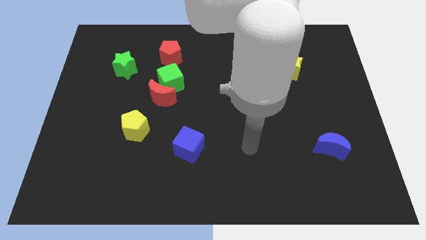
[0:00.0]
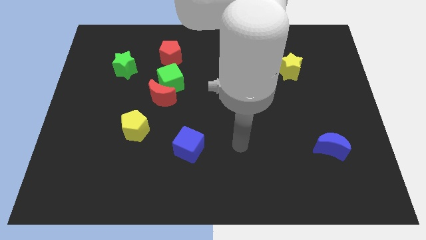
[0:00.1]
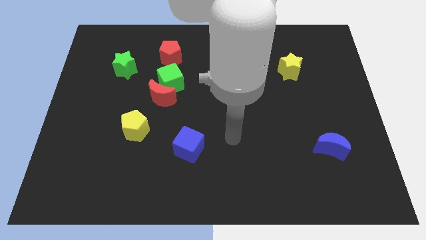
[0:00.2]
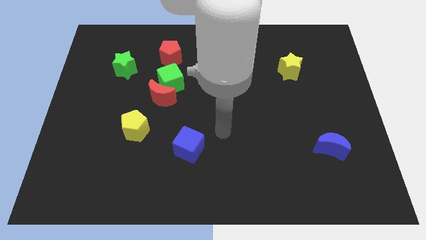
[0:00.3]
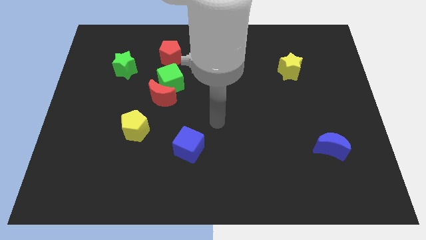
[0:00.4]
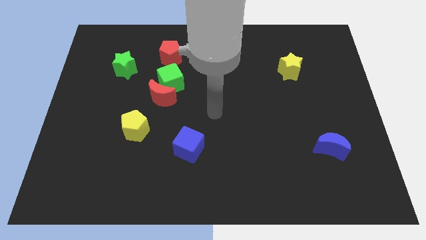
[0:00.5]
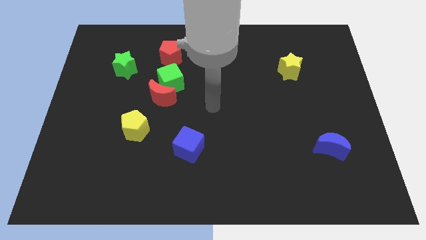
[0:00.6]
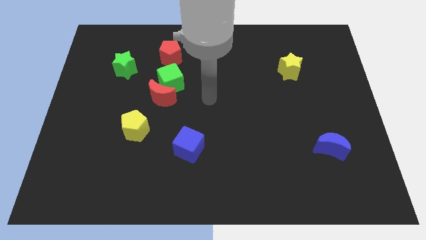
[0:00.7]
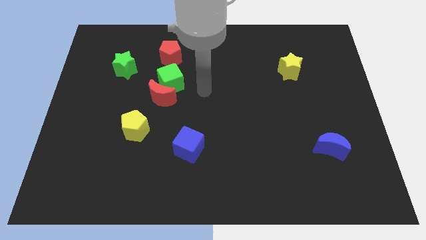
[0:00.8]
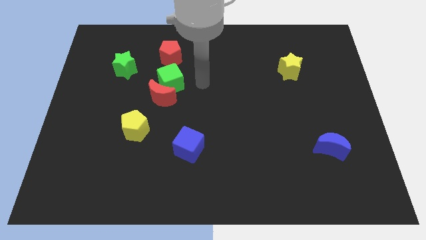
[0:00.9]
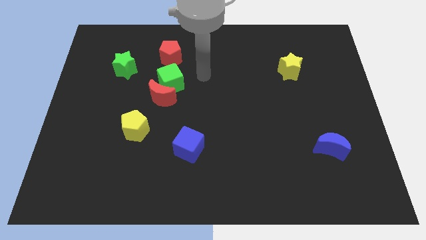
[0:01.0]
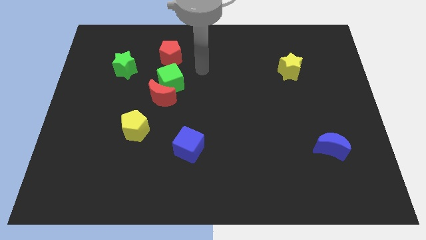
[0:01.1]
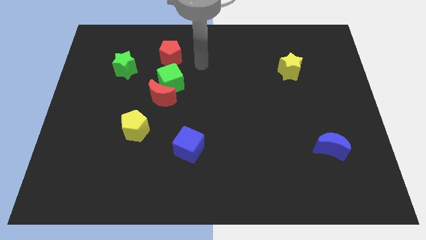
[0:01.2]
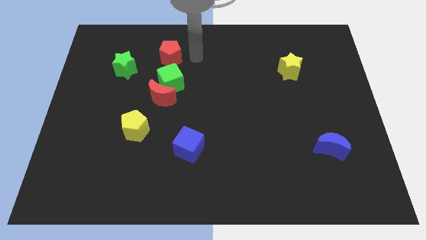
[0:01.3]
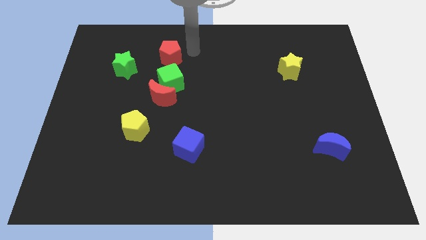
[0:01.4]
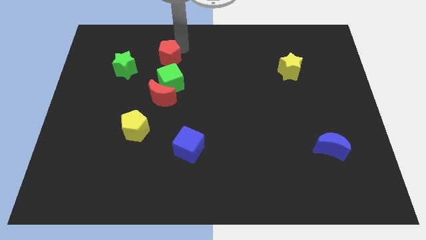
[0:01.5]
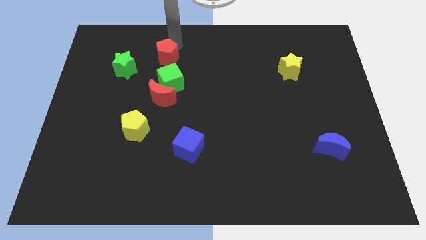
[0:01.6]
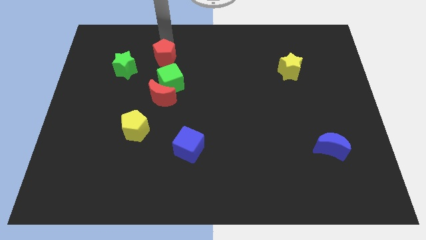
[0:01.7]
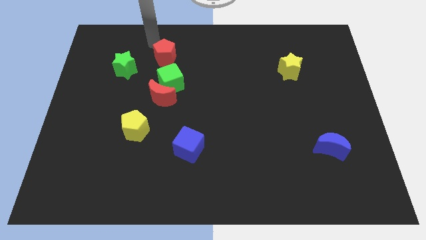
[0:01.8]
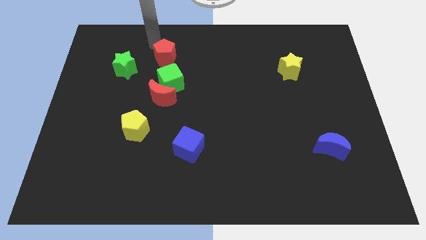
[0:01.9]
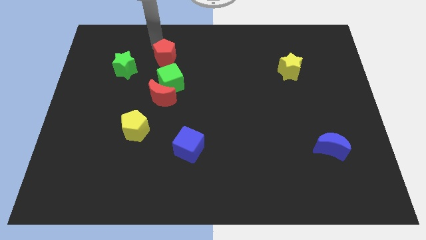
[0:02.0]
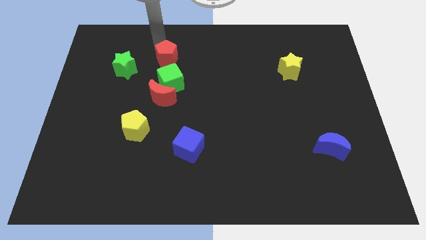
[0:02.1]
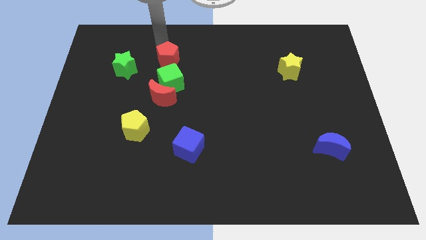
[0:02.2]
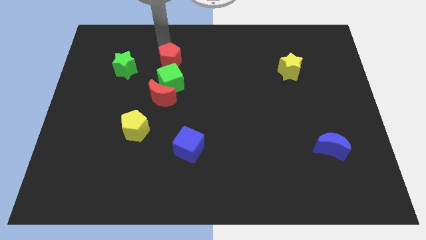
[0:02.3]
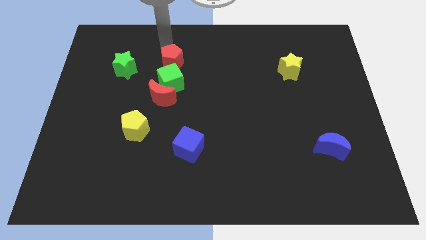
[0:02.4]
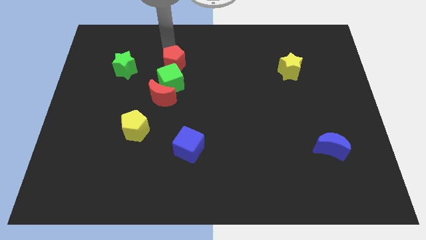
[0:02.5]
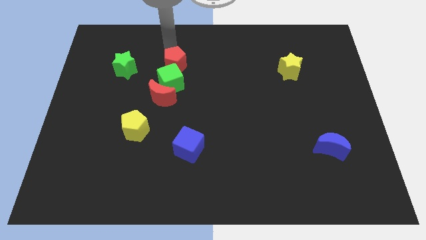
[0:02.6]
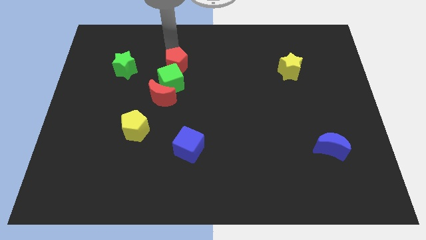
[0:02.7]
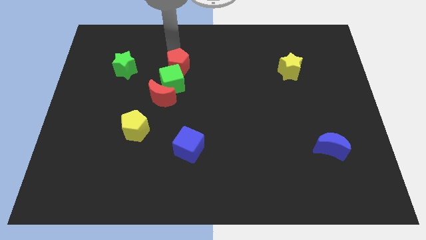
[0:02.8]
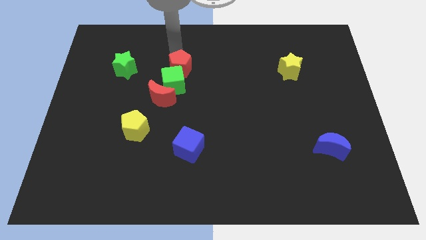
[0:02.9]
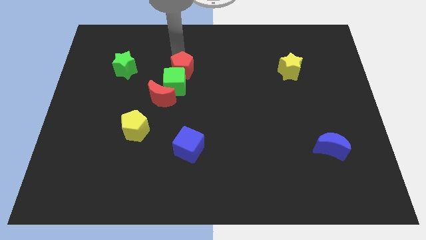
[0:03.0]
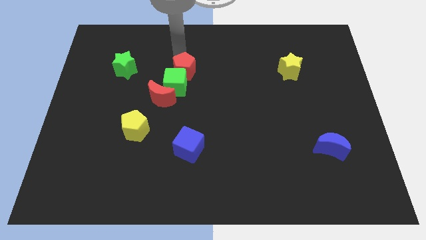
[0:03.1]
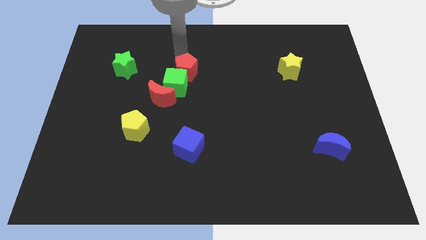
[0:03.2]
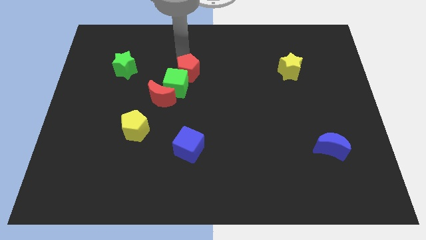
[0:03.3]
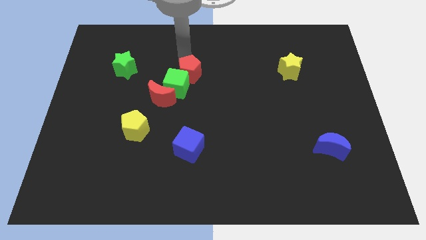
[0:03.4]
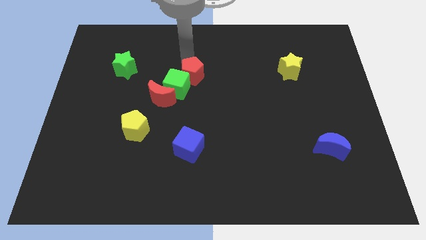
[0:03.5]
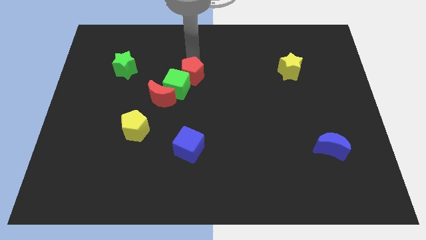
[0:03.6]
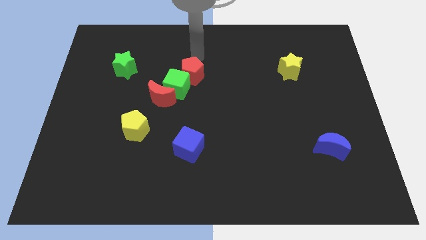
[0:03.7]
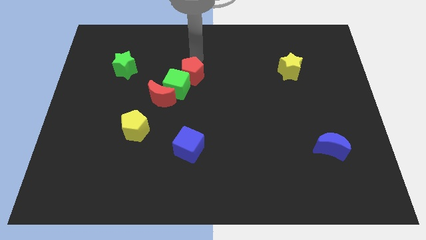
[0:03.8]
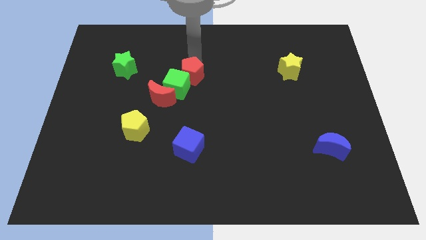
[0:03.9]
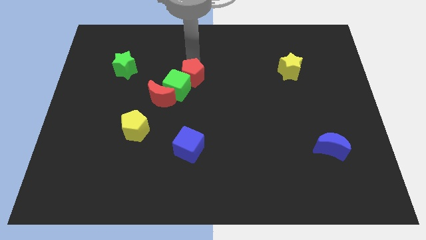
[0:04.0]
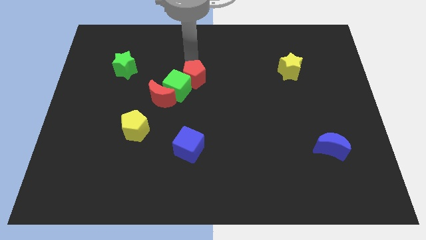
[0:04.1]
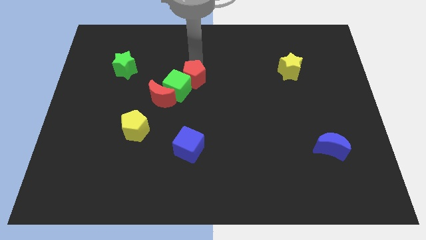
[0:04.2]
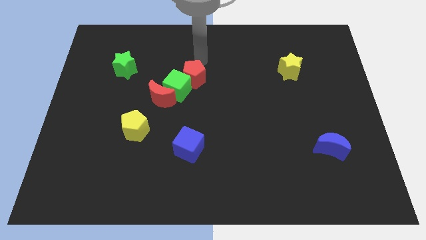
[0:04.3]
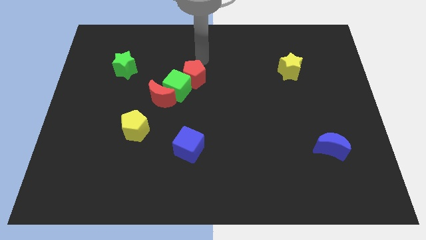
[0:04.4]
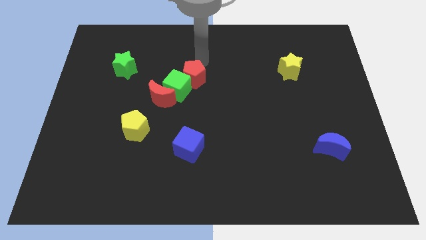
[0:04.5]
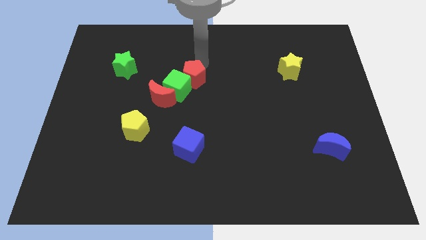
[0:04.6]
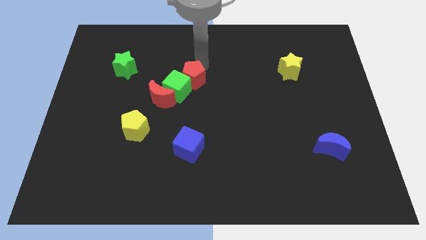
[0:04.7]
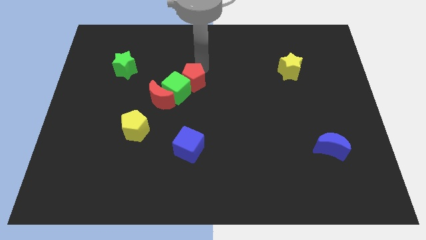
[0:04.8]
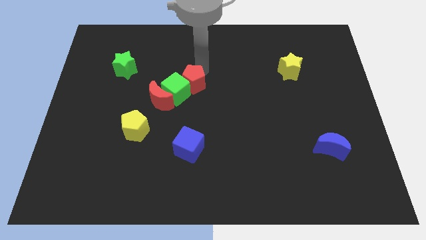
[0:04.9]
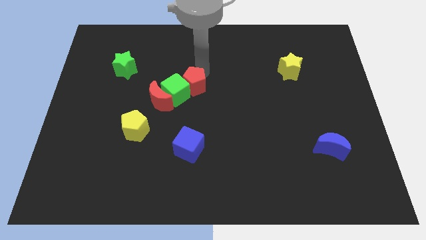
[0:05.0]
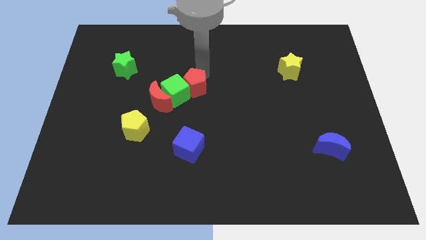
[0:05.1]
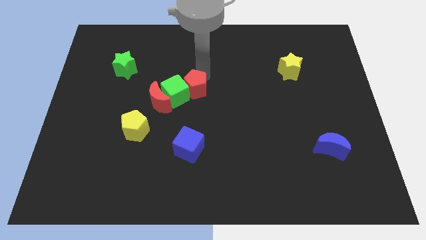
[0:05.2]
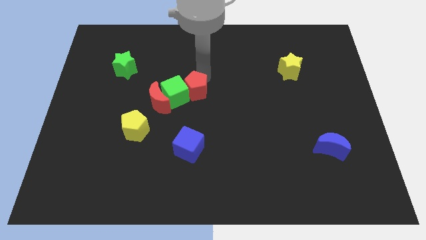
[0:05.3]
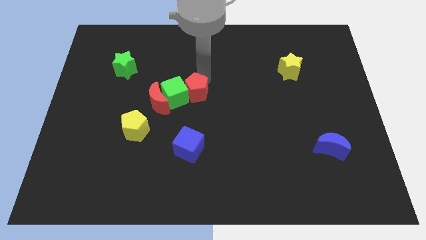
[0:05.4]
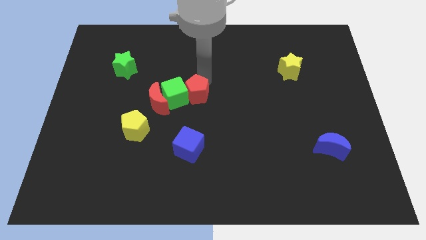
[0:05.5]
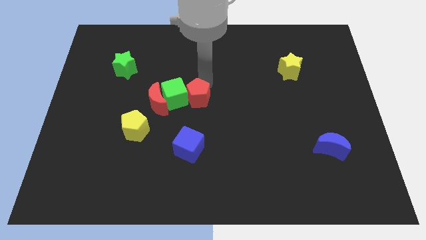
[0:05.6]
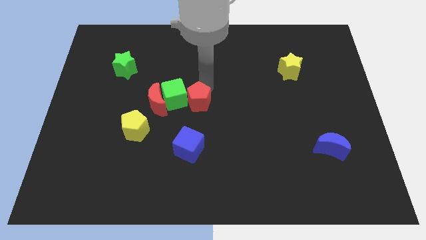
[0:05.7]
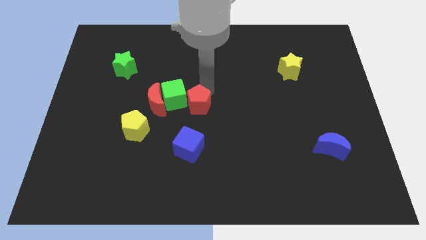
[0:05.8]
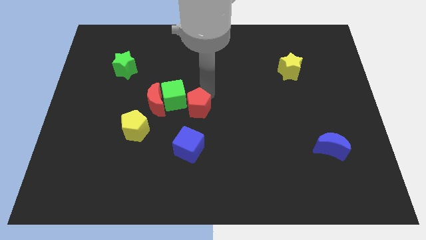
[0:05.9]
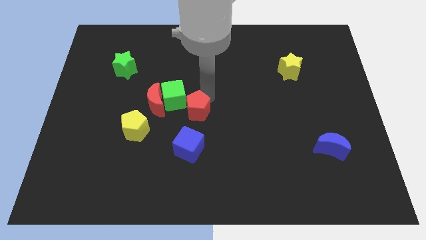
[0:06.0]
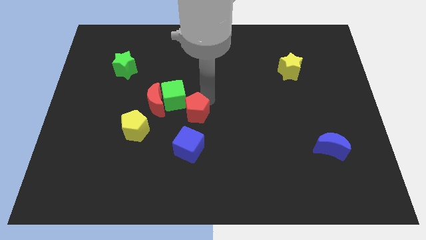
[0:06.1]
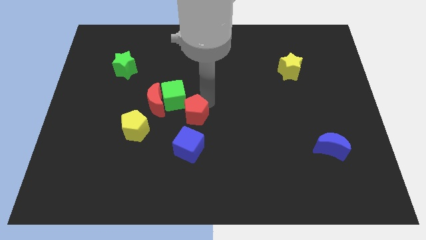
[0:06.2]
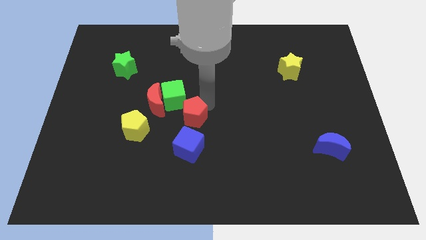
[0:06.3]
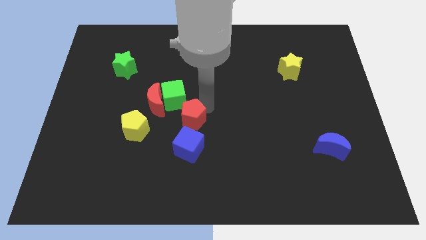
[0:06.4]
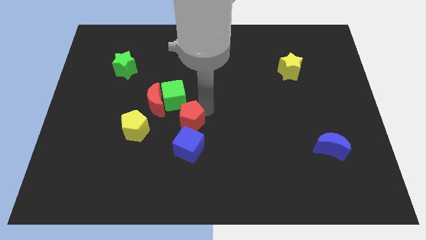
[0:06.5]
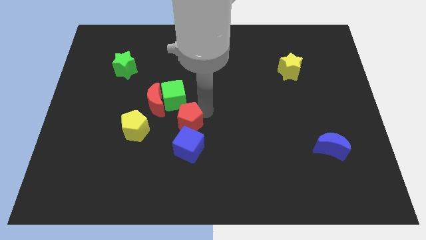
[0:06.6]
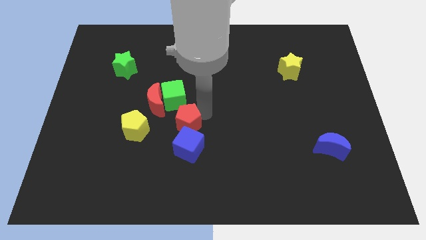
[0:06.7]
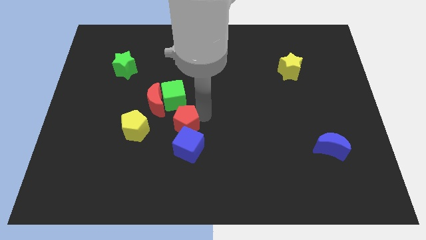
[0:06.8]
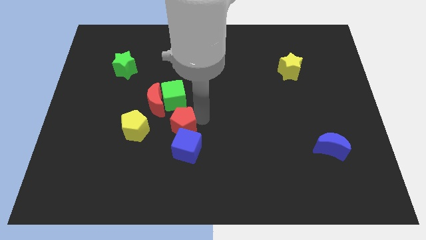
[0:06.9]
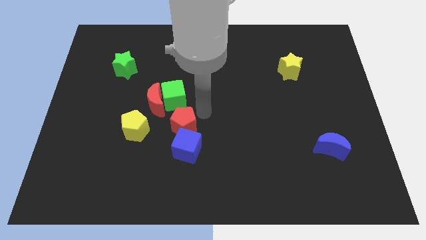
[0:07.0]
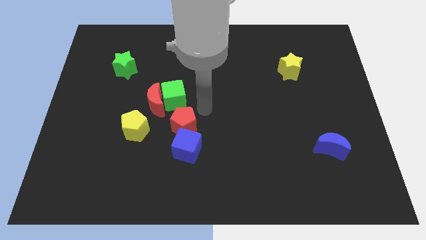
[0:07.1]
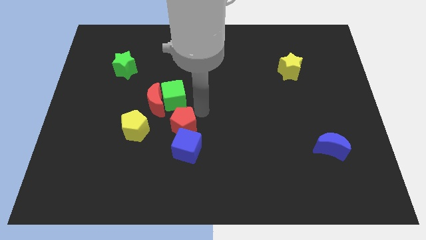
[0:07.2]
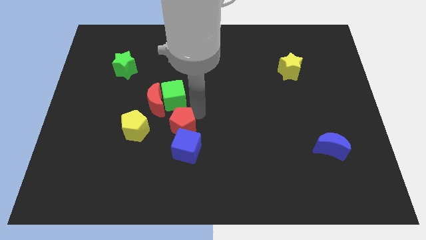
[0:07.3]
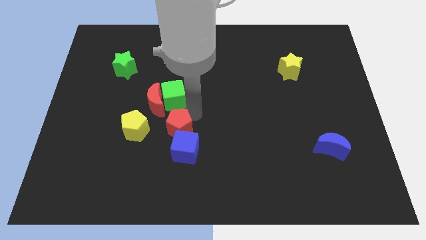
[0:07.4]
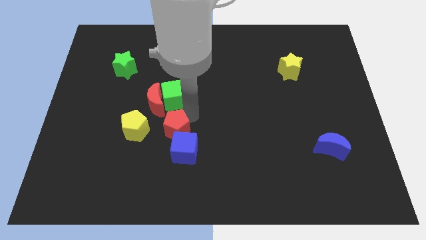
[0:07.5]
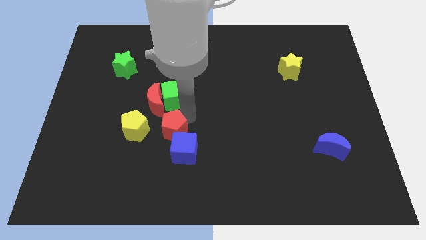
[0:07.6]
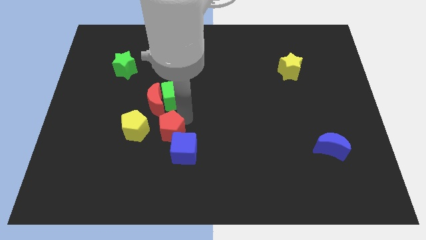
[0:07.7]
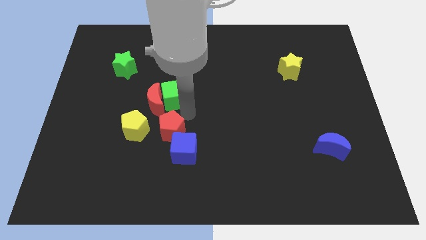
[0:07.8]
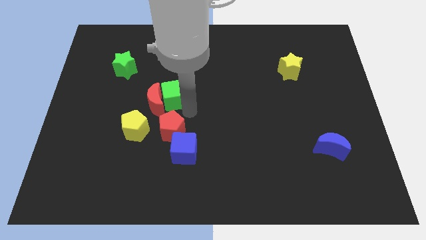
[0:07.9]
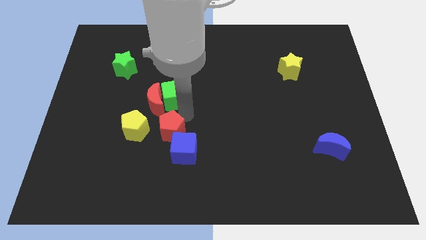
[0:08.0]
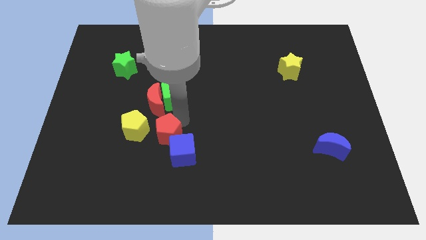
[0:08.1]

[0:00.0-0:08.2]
slide the red pentagon to the bottom right of the yellow pentagon
